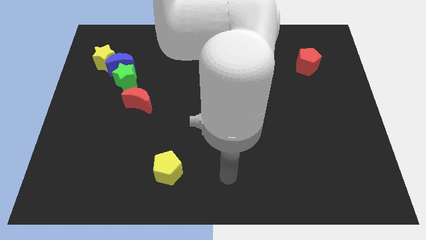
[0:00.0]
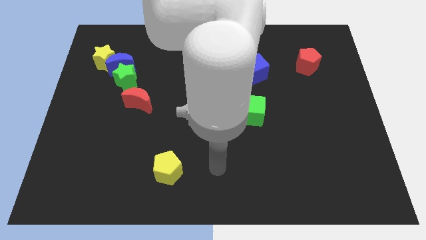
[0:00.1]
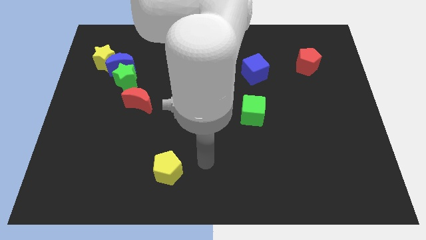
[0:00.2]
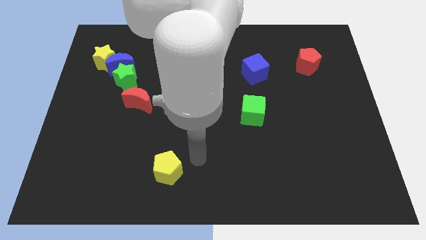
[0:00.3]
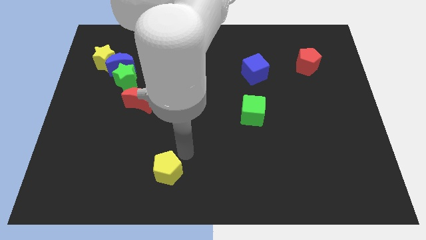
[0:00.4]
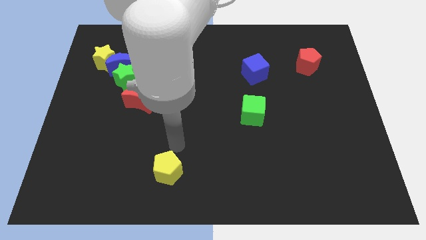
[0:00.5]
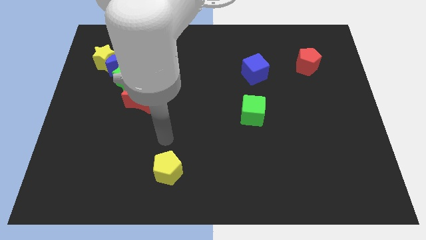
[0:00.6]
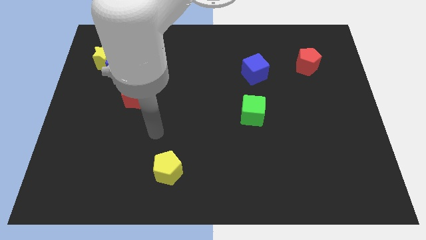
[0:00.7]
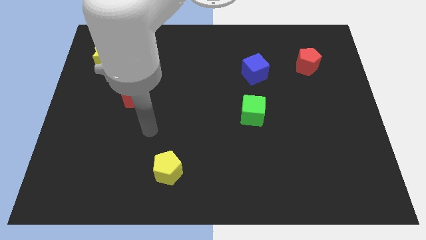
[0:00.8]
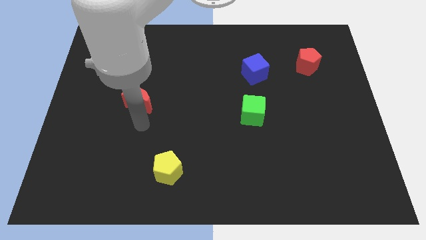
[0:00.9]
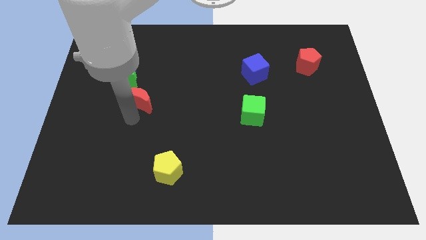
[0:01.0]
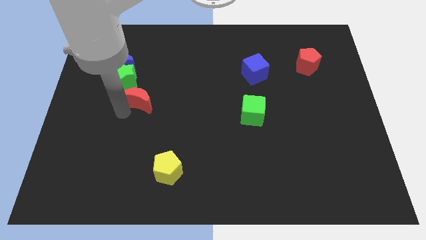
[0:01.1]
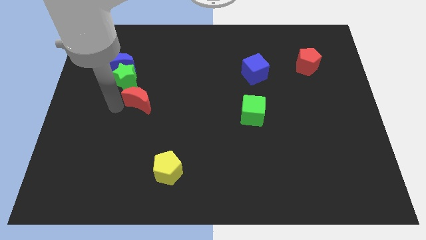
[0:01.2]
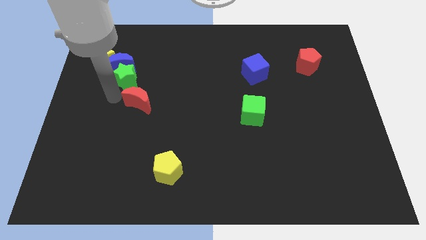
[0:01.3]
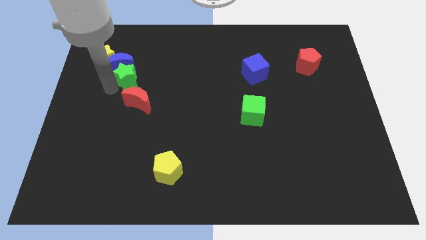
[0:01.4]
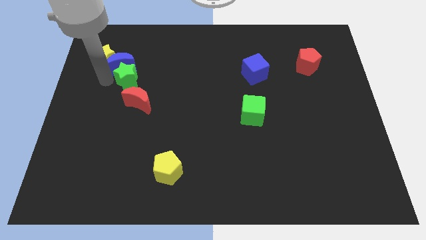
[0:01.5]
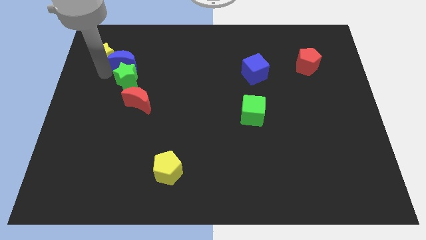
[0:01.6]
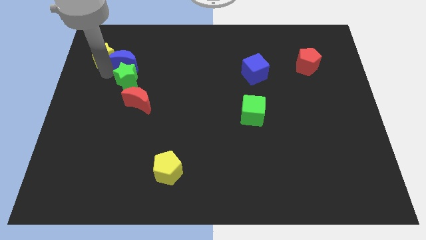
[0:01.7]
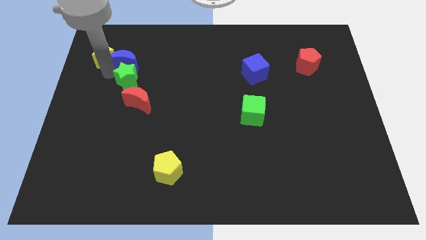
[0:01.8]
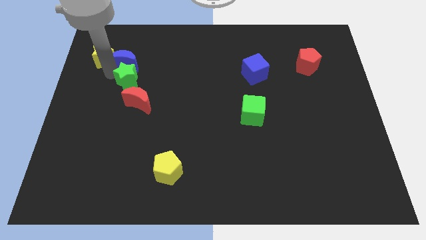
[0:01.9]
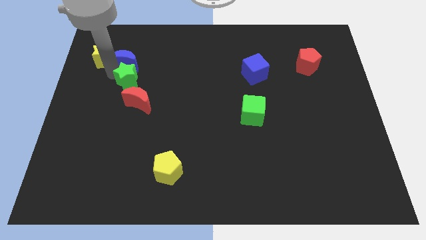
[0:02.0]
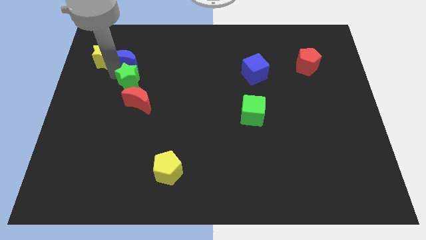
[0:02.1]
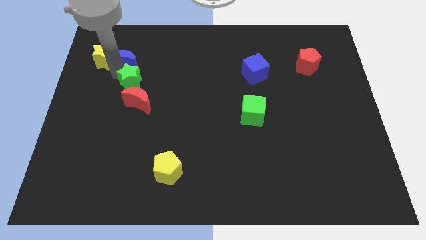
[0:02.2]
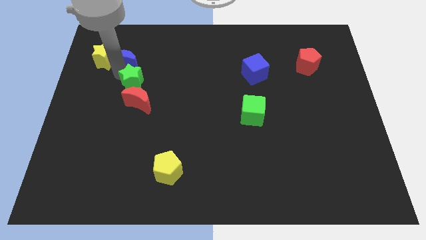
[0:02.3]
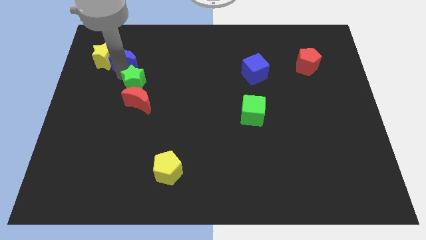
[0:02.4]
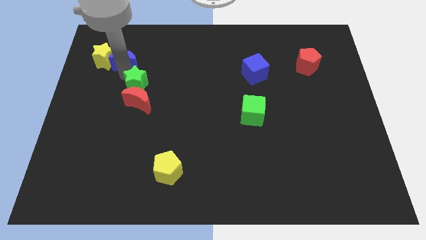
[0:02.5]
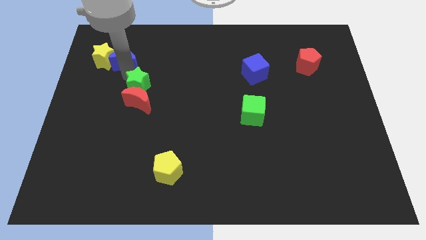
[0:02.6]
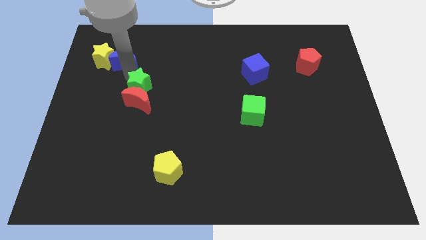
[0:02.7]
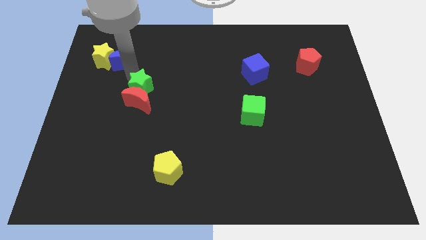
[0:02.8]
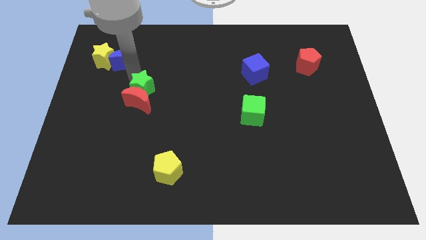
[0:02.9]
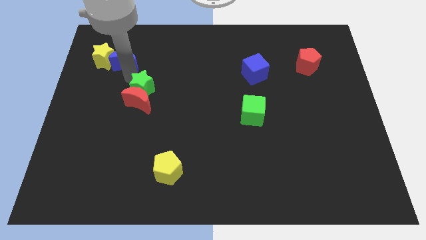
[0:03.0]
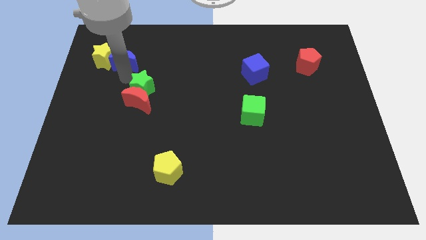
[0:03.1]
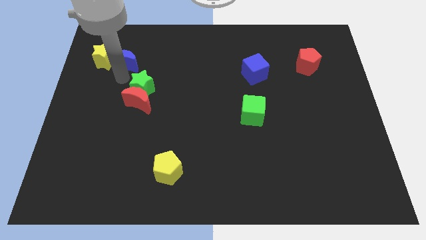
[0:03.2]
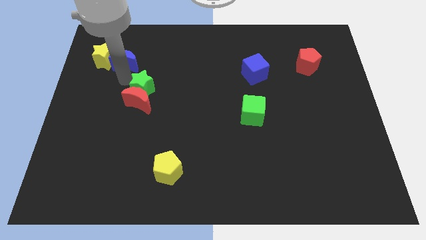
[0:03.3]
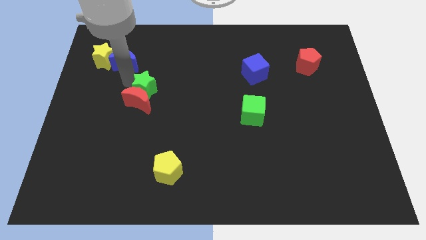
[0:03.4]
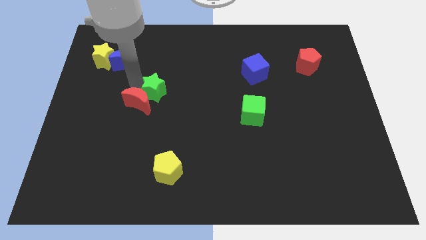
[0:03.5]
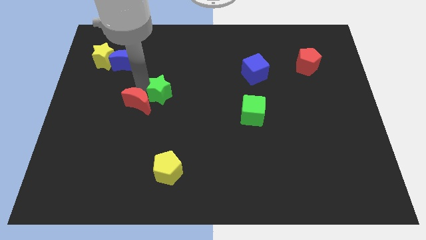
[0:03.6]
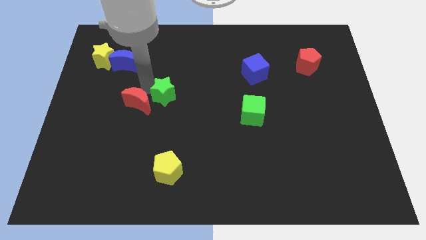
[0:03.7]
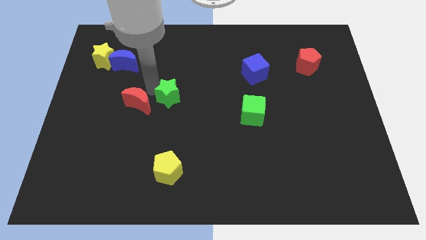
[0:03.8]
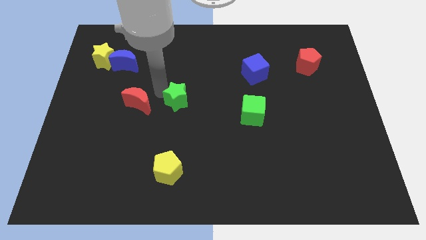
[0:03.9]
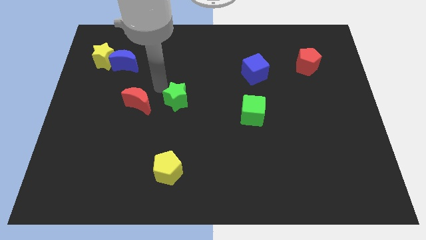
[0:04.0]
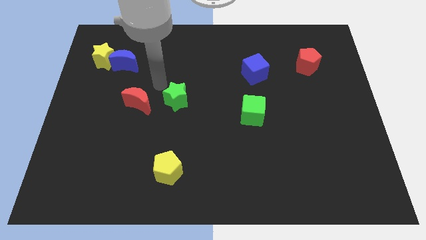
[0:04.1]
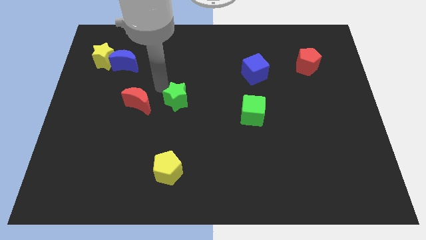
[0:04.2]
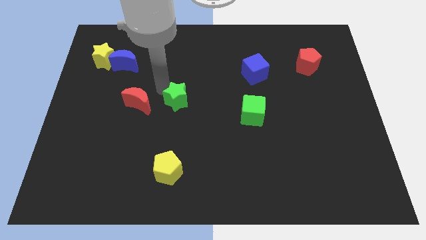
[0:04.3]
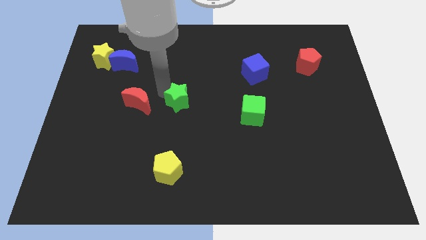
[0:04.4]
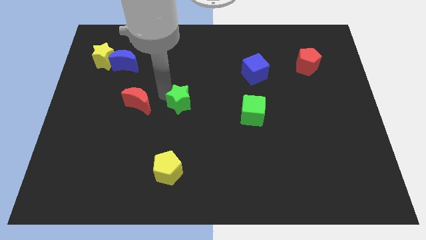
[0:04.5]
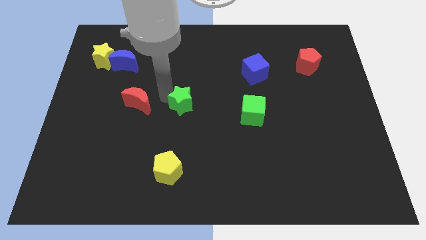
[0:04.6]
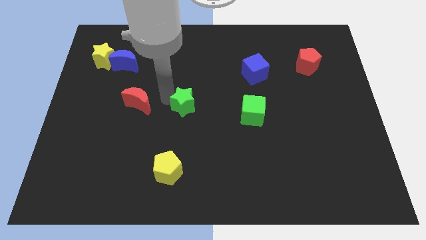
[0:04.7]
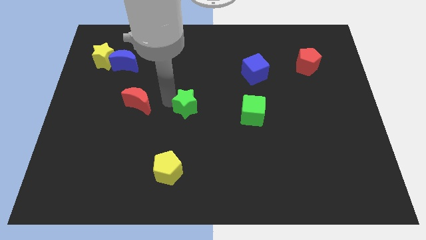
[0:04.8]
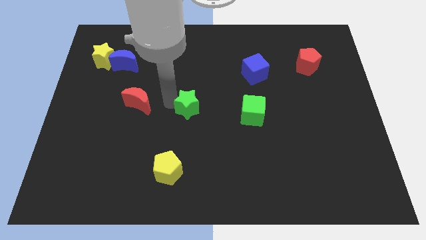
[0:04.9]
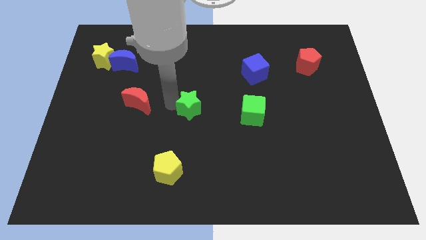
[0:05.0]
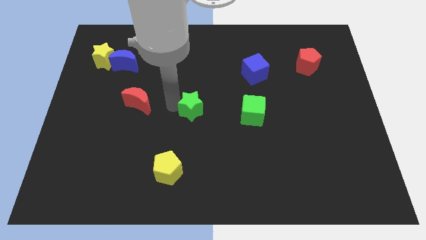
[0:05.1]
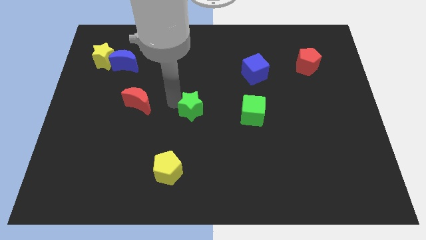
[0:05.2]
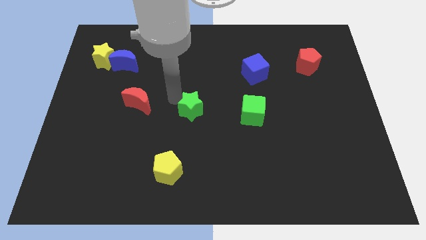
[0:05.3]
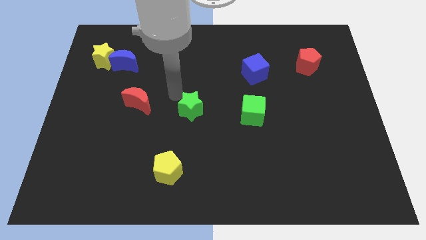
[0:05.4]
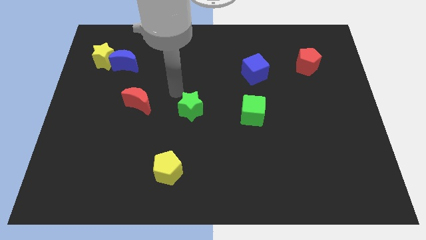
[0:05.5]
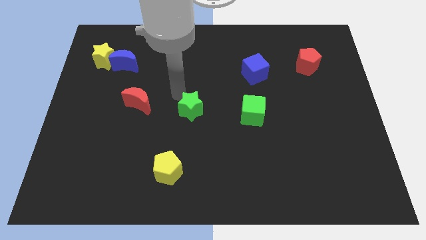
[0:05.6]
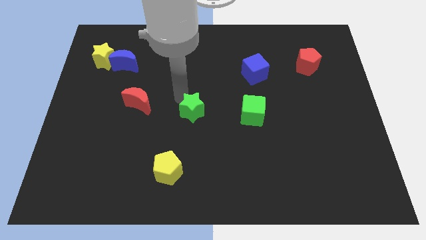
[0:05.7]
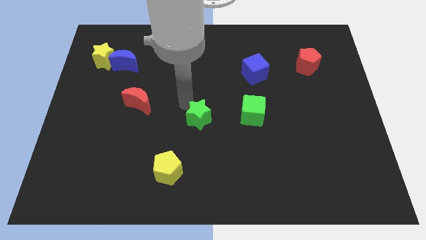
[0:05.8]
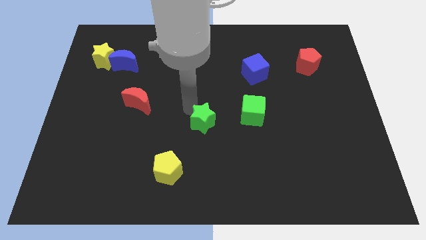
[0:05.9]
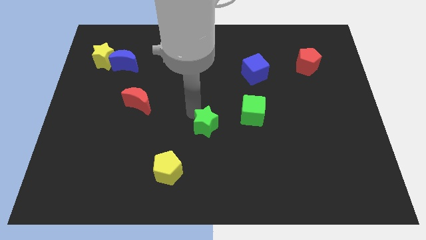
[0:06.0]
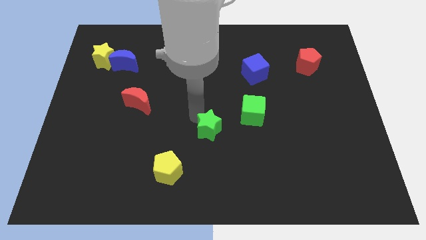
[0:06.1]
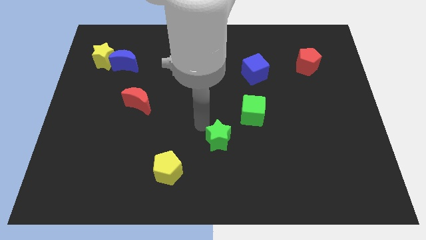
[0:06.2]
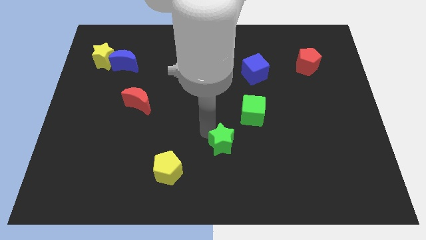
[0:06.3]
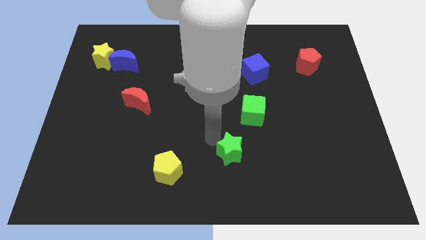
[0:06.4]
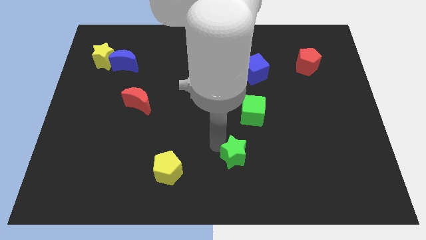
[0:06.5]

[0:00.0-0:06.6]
slide the green star to the bottom side of the green cube

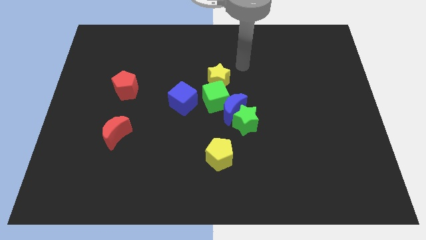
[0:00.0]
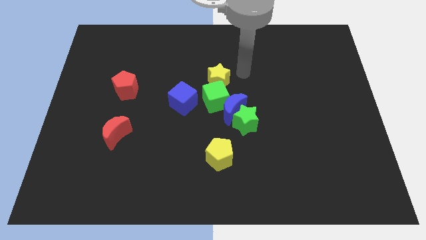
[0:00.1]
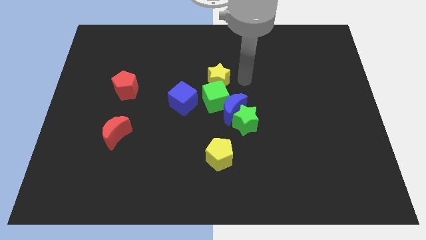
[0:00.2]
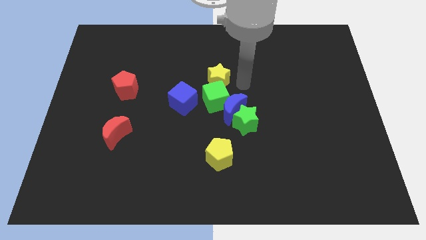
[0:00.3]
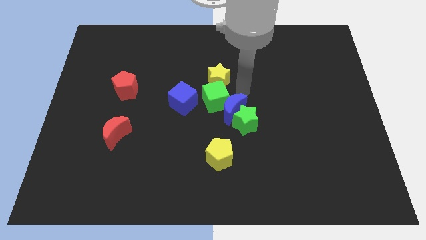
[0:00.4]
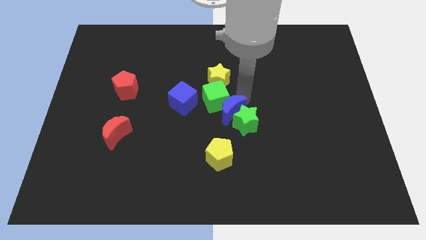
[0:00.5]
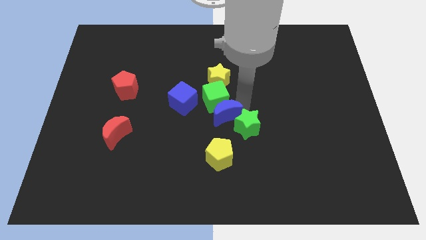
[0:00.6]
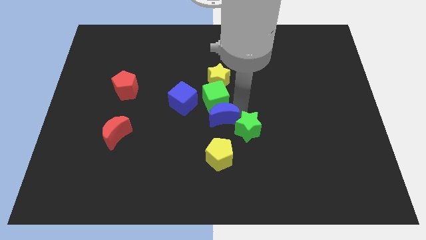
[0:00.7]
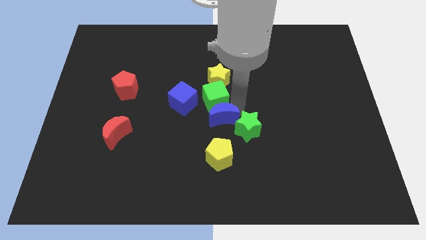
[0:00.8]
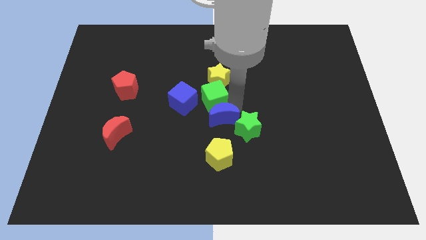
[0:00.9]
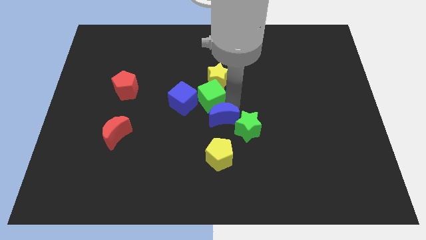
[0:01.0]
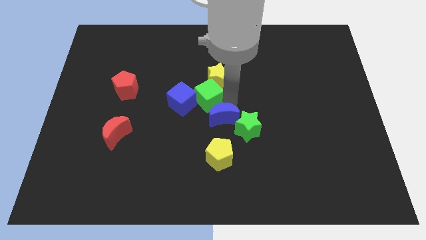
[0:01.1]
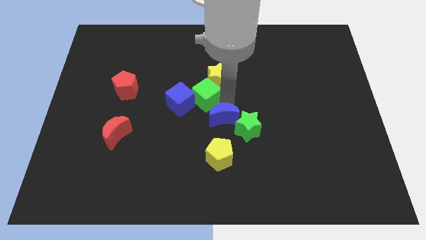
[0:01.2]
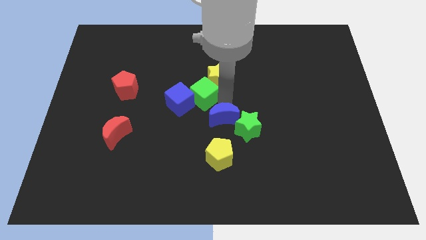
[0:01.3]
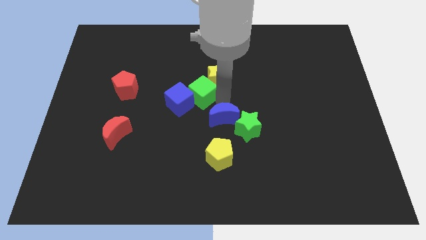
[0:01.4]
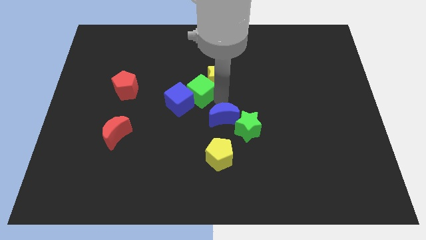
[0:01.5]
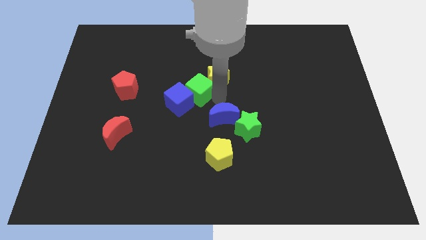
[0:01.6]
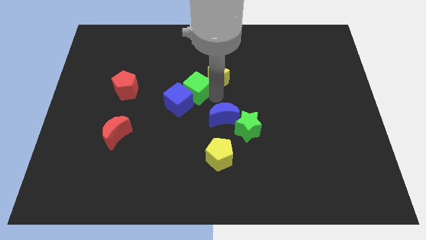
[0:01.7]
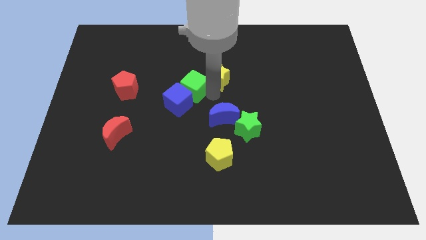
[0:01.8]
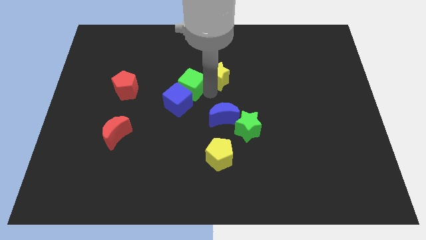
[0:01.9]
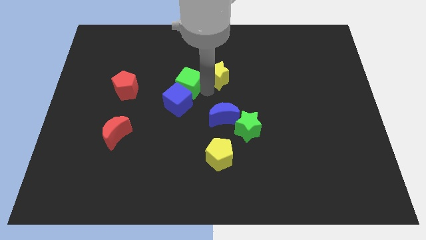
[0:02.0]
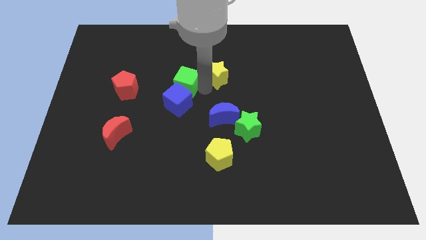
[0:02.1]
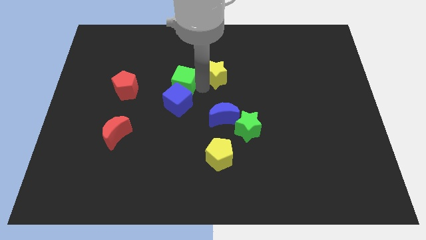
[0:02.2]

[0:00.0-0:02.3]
move the green cube to the top left of the blue cube
